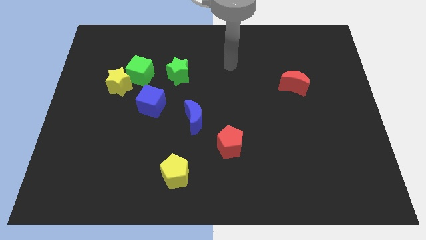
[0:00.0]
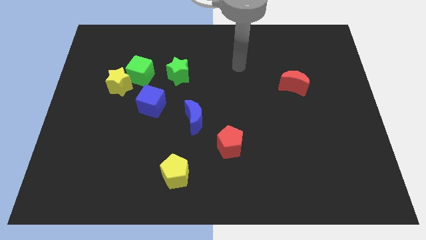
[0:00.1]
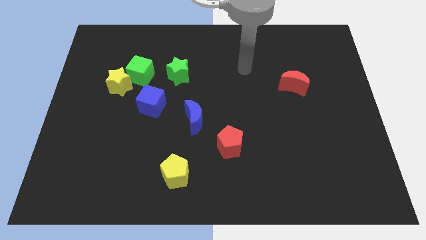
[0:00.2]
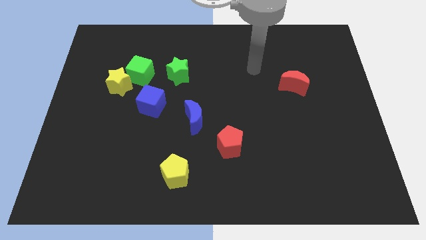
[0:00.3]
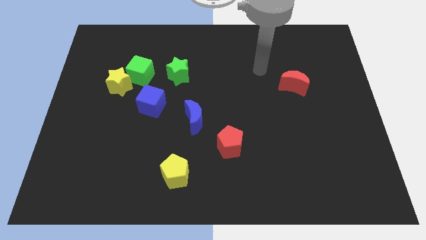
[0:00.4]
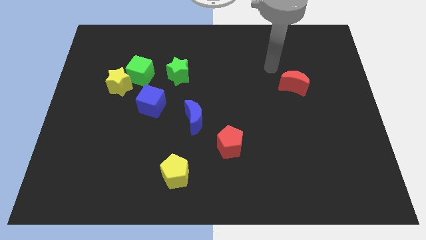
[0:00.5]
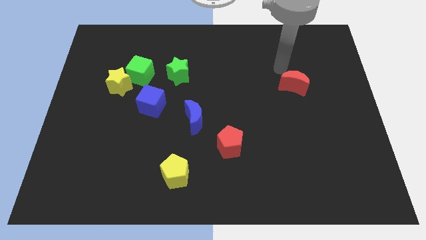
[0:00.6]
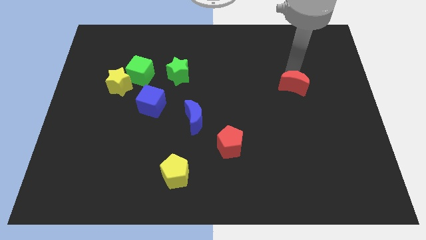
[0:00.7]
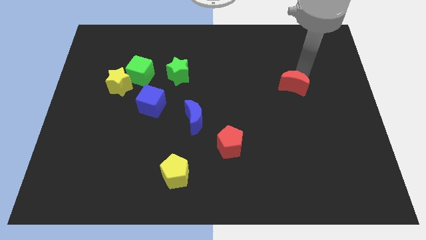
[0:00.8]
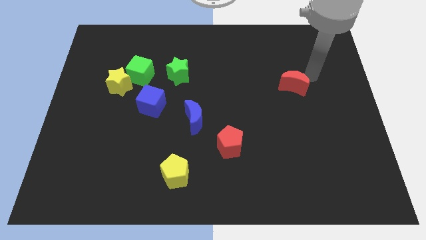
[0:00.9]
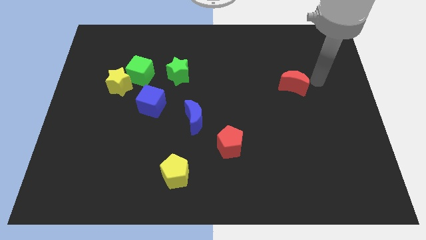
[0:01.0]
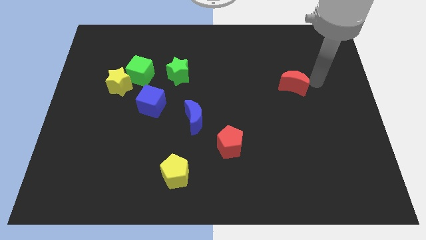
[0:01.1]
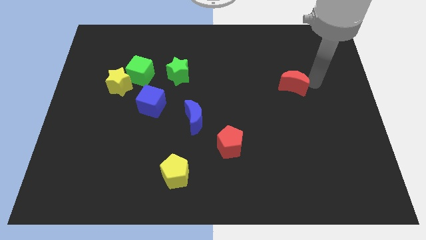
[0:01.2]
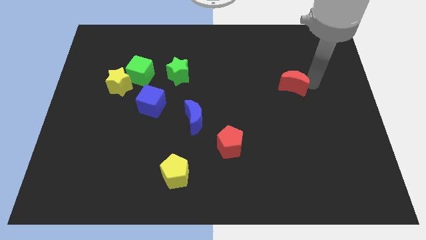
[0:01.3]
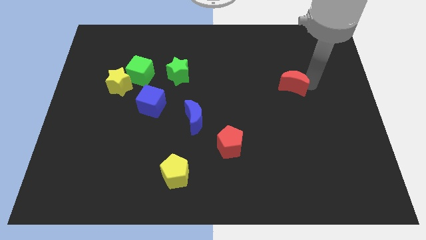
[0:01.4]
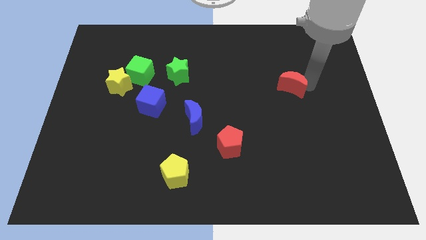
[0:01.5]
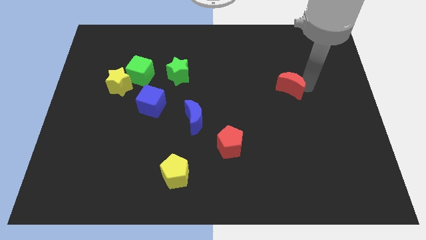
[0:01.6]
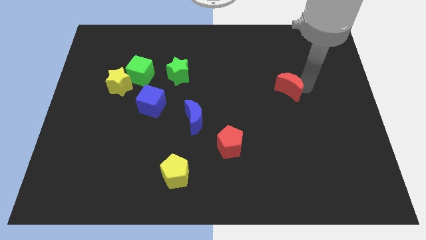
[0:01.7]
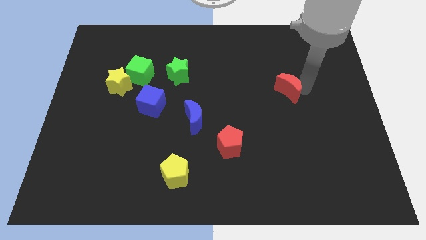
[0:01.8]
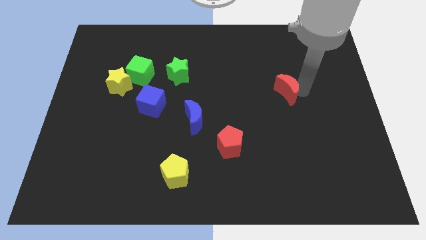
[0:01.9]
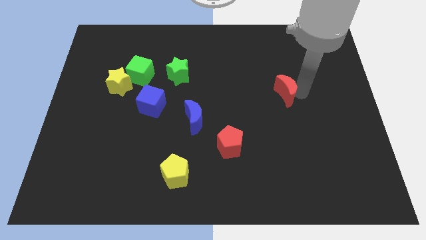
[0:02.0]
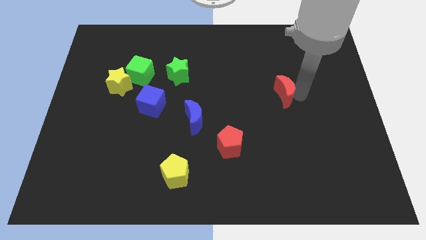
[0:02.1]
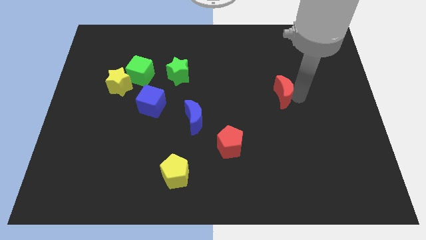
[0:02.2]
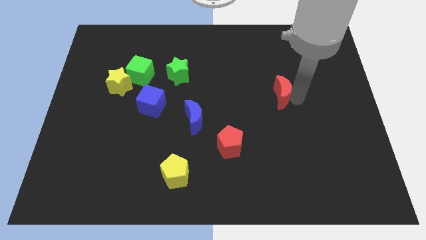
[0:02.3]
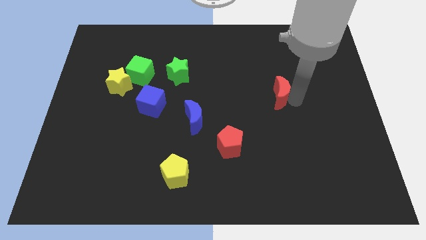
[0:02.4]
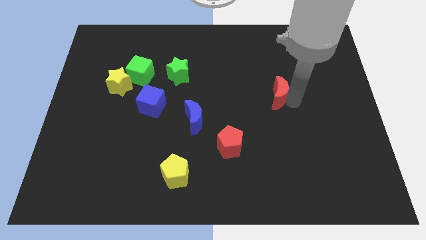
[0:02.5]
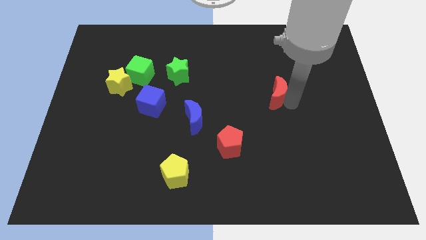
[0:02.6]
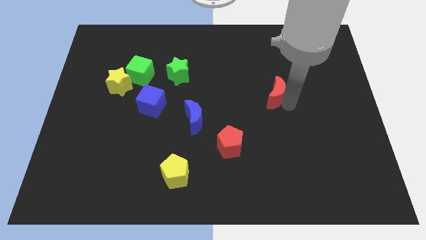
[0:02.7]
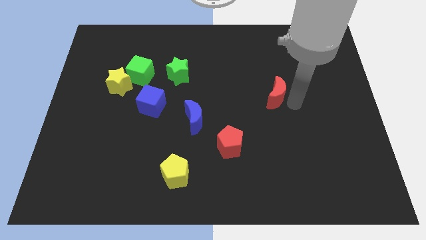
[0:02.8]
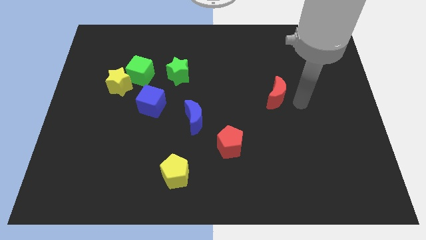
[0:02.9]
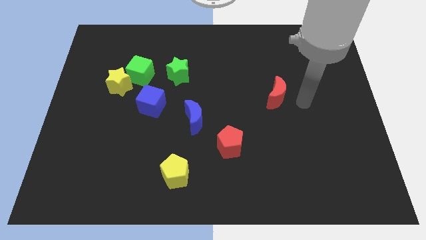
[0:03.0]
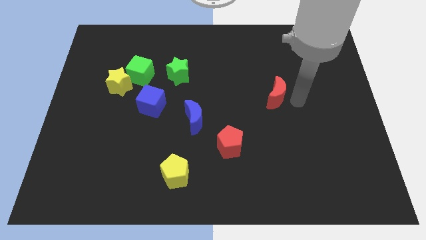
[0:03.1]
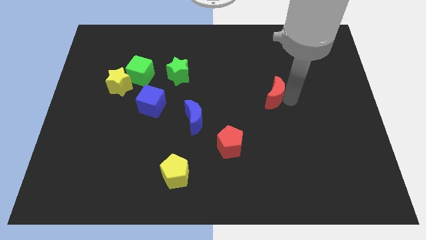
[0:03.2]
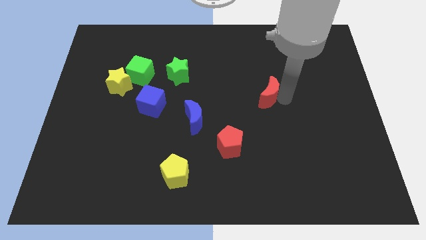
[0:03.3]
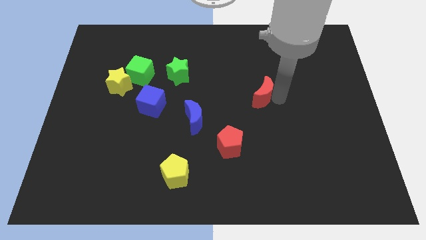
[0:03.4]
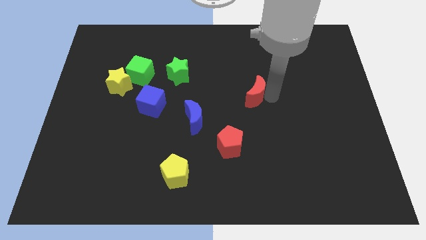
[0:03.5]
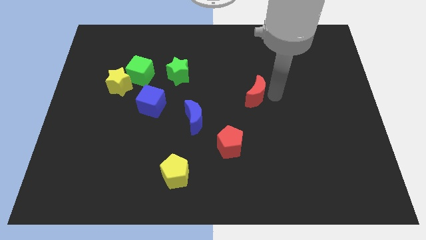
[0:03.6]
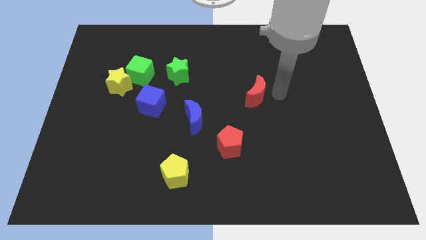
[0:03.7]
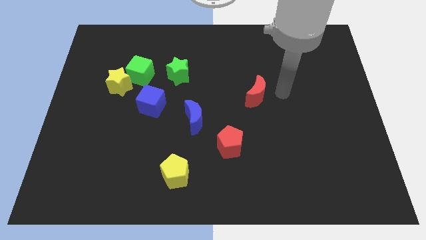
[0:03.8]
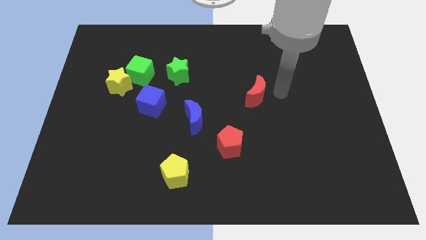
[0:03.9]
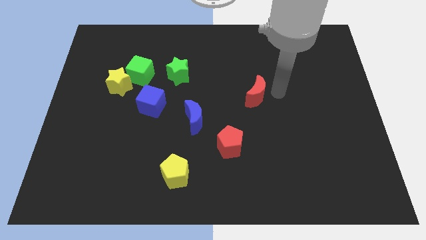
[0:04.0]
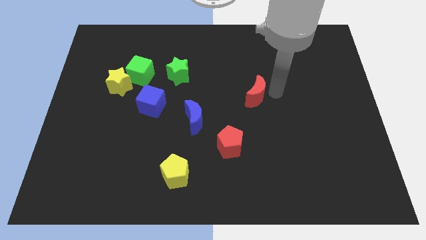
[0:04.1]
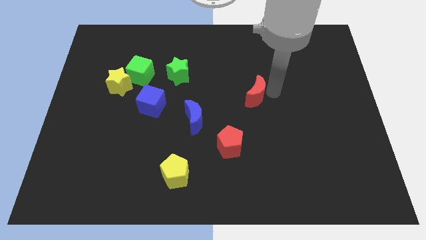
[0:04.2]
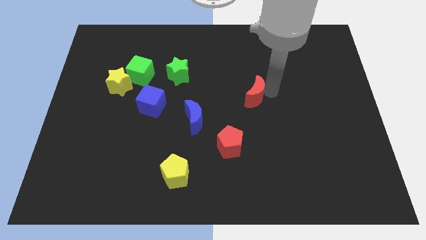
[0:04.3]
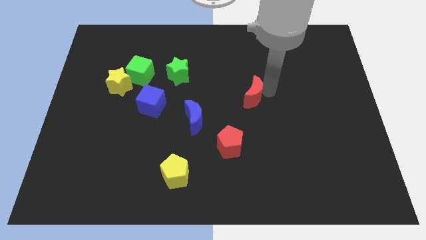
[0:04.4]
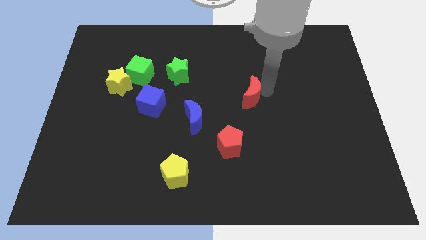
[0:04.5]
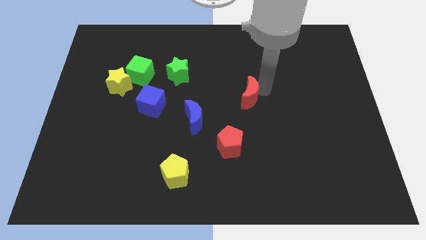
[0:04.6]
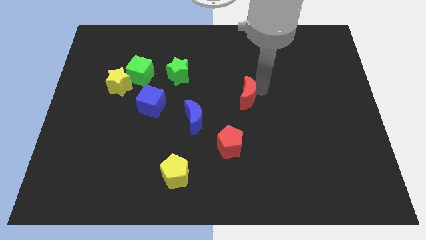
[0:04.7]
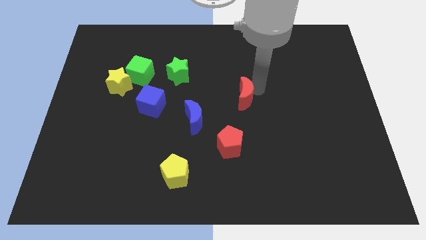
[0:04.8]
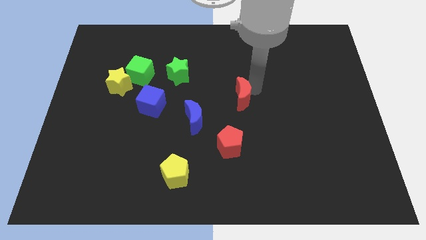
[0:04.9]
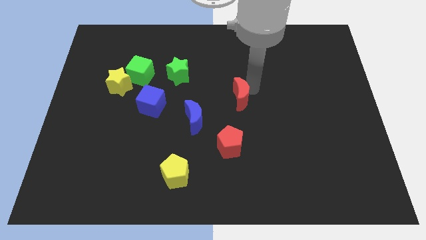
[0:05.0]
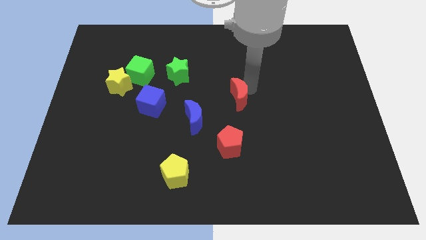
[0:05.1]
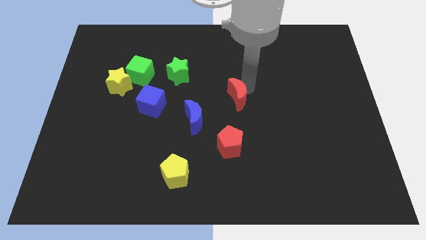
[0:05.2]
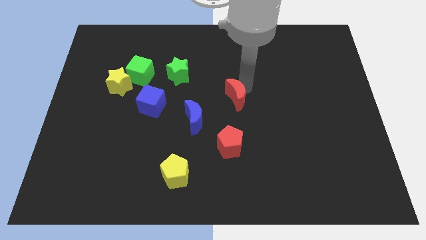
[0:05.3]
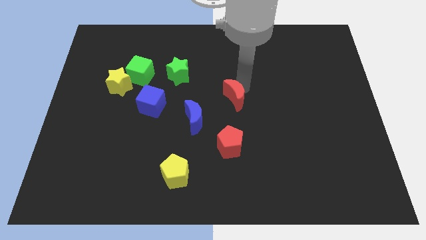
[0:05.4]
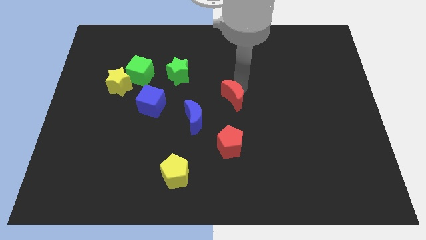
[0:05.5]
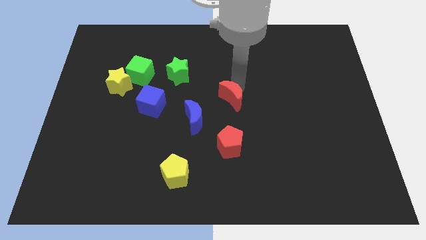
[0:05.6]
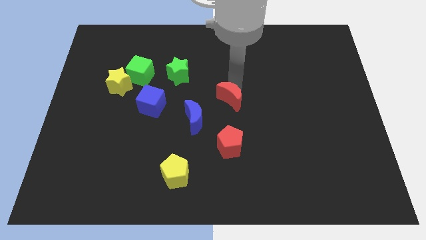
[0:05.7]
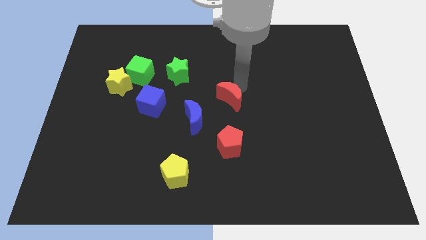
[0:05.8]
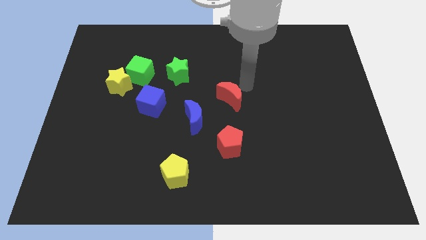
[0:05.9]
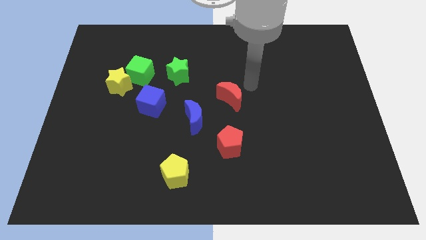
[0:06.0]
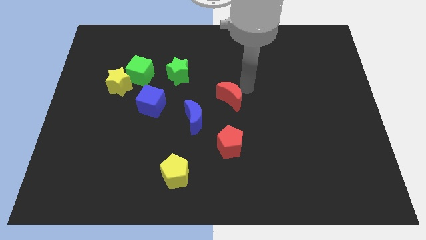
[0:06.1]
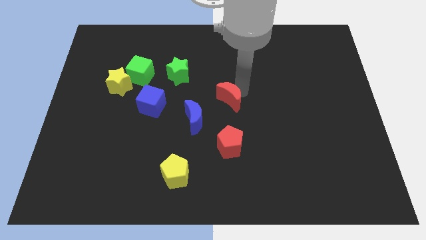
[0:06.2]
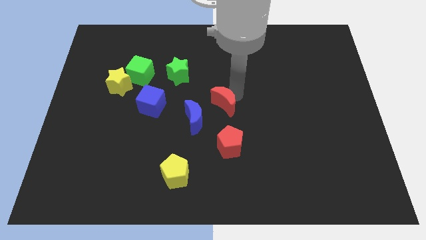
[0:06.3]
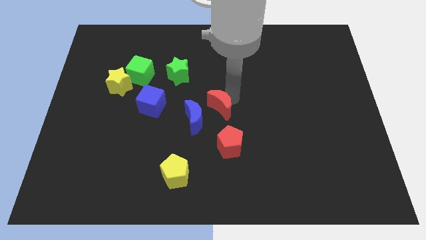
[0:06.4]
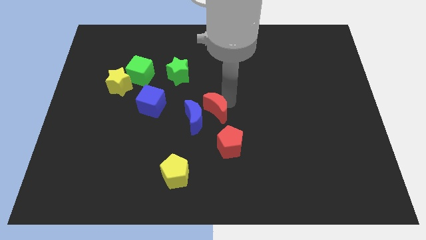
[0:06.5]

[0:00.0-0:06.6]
push the red moon to the blue moon

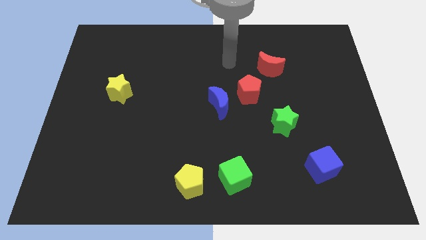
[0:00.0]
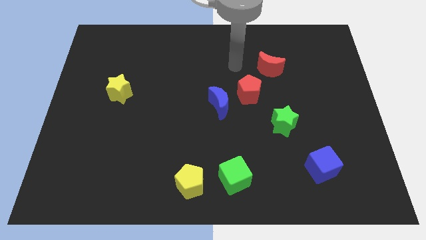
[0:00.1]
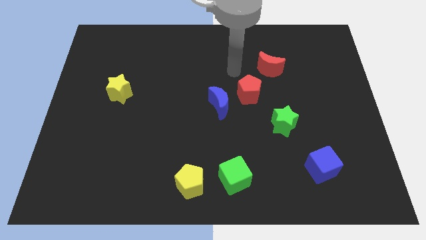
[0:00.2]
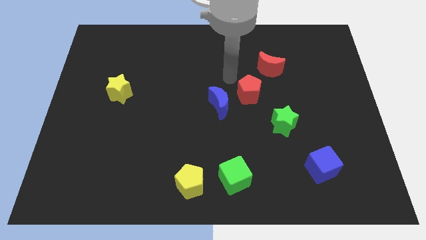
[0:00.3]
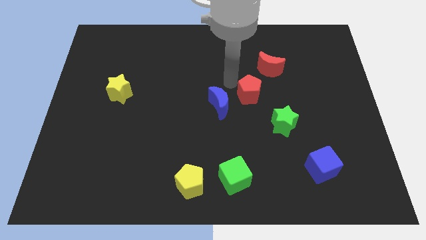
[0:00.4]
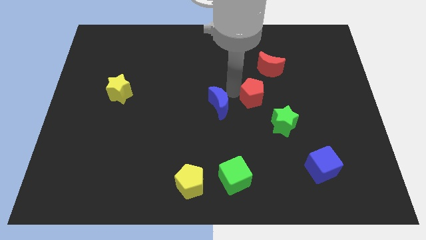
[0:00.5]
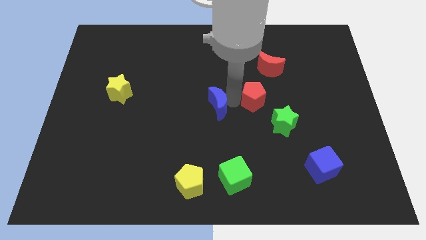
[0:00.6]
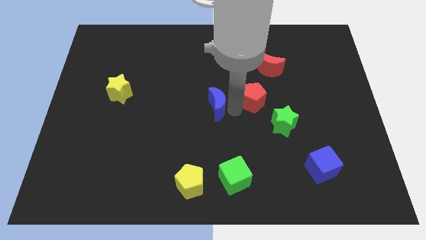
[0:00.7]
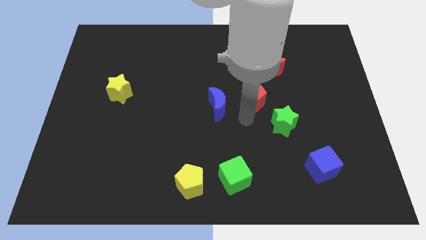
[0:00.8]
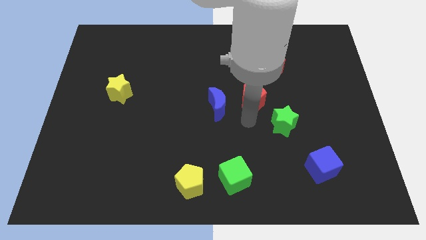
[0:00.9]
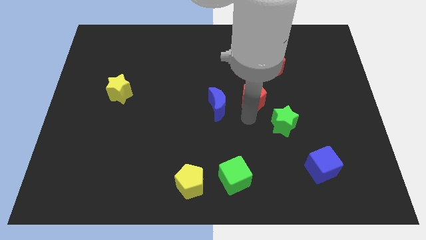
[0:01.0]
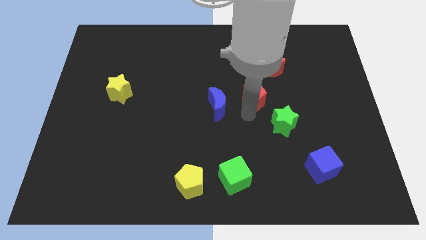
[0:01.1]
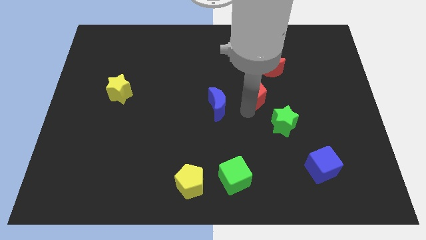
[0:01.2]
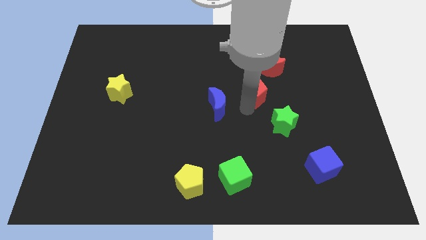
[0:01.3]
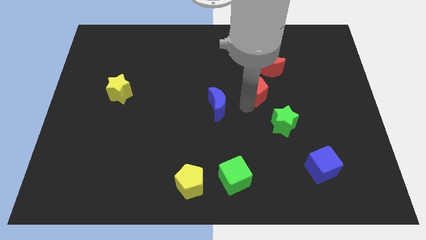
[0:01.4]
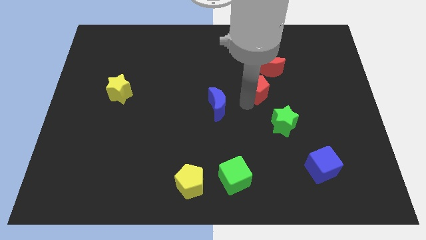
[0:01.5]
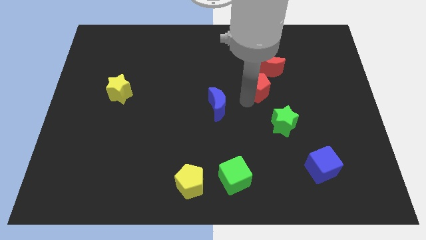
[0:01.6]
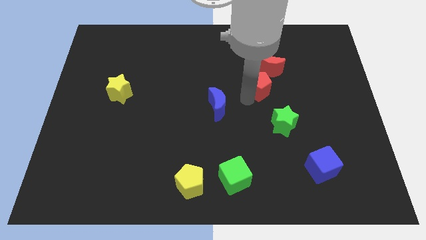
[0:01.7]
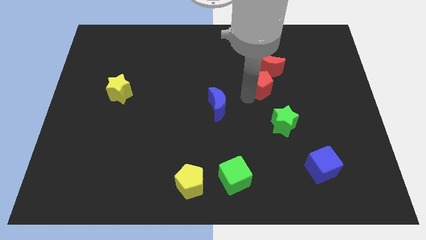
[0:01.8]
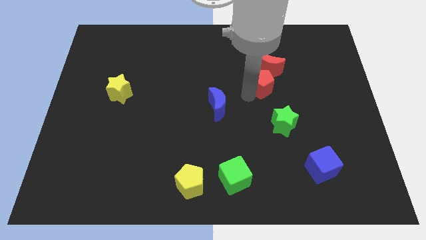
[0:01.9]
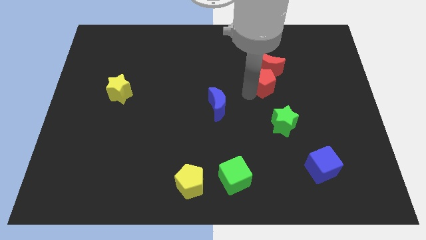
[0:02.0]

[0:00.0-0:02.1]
push the red pentagon close to the red moon
